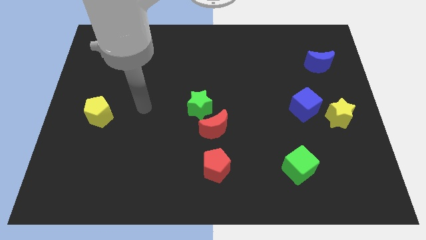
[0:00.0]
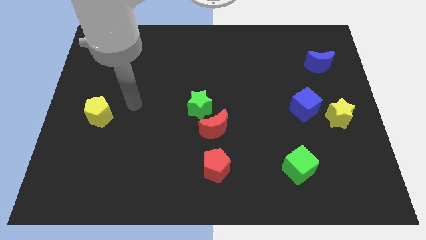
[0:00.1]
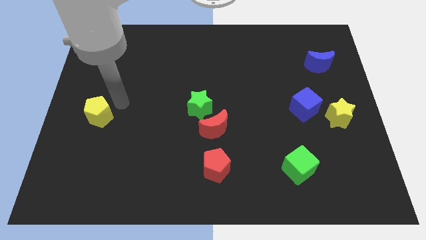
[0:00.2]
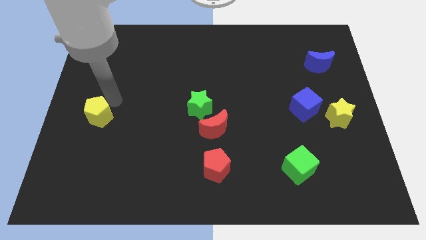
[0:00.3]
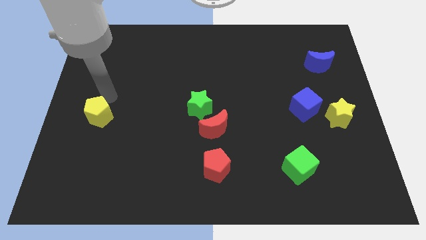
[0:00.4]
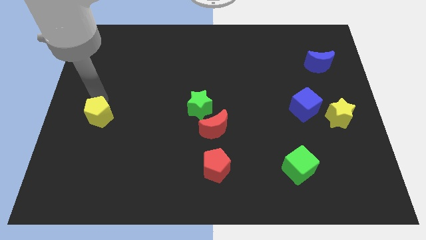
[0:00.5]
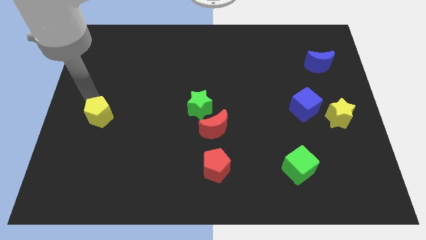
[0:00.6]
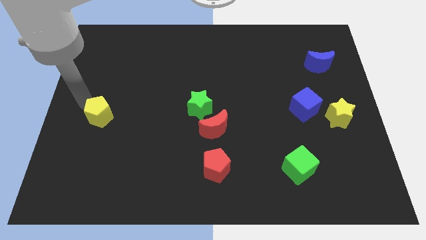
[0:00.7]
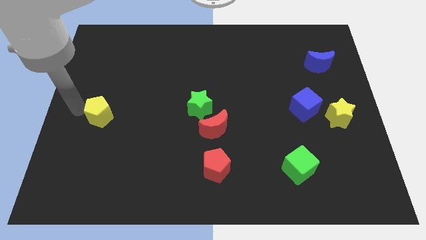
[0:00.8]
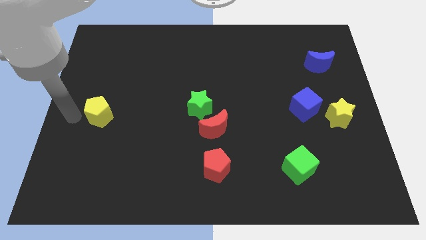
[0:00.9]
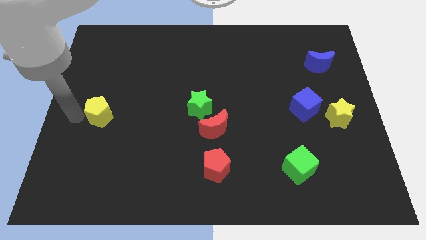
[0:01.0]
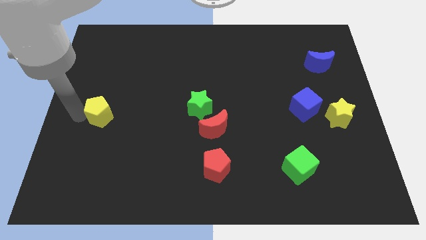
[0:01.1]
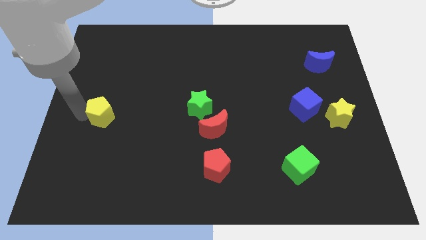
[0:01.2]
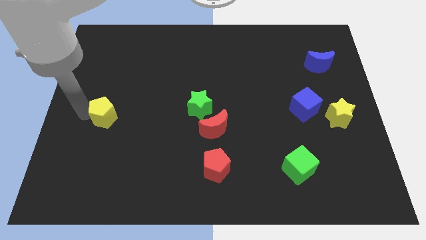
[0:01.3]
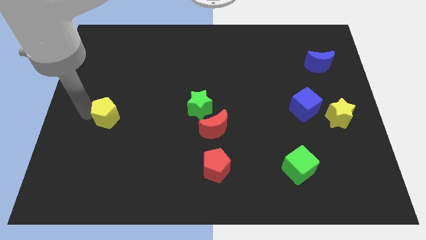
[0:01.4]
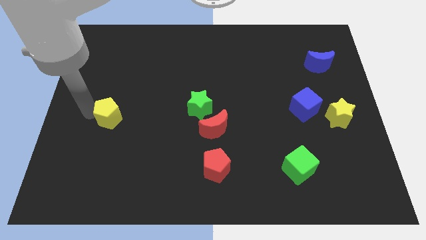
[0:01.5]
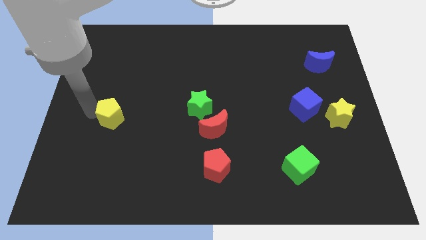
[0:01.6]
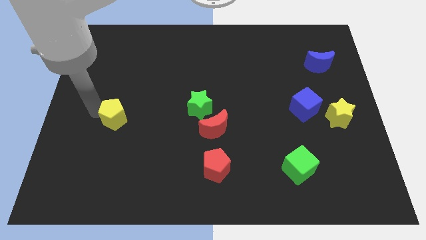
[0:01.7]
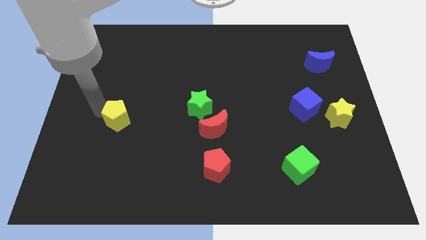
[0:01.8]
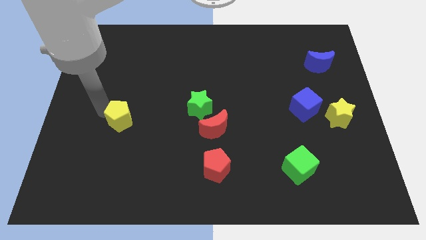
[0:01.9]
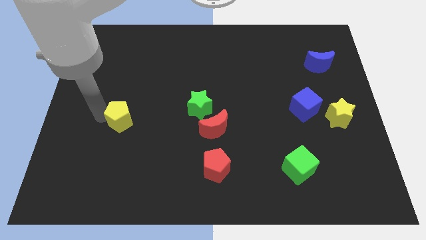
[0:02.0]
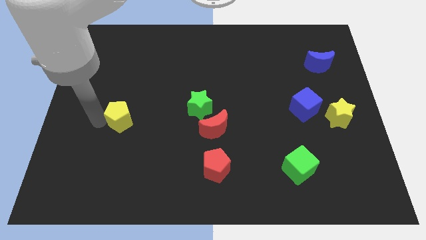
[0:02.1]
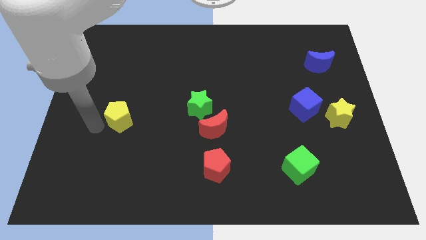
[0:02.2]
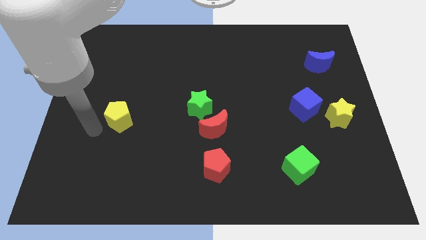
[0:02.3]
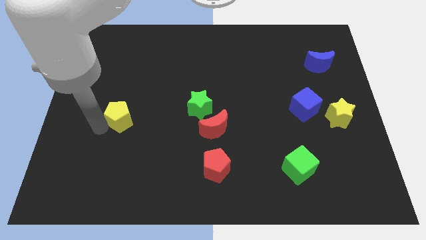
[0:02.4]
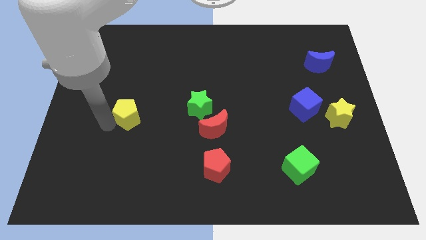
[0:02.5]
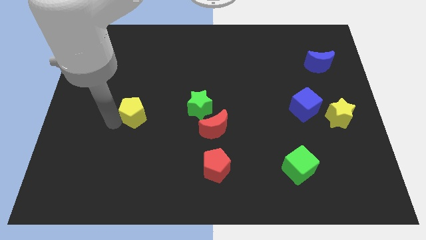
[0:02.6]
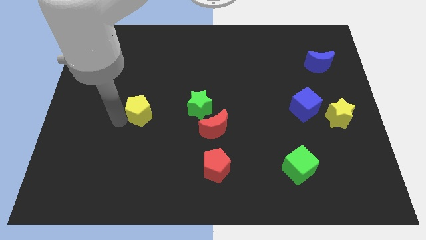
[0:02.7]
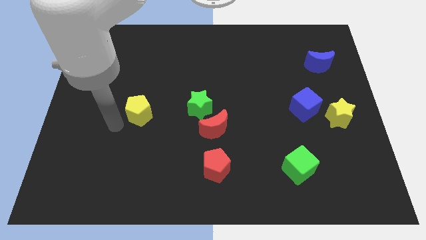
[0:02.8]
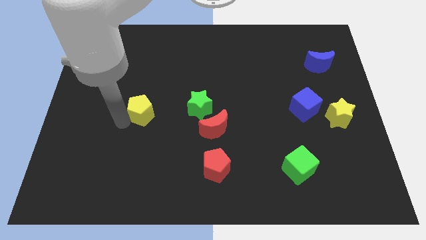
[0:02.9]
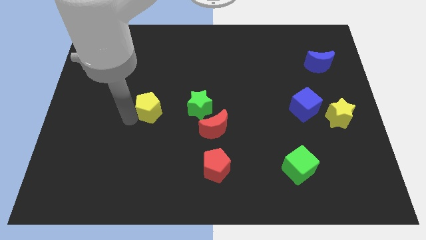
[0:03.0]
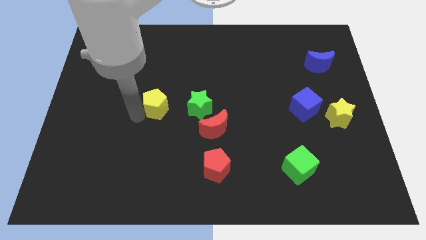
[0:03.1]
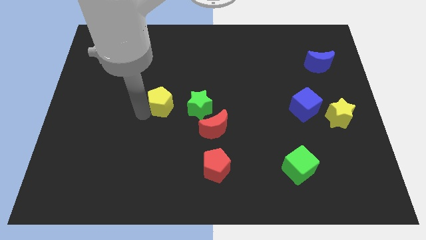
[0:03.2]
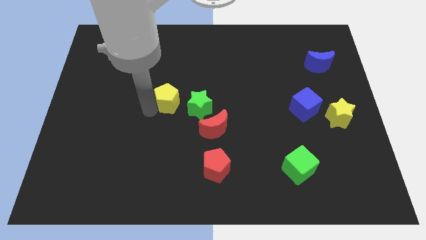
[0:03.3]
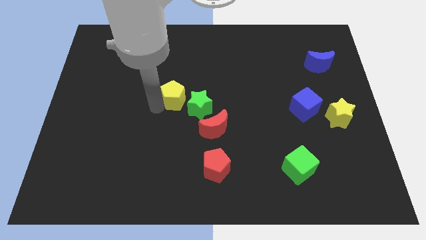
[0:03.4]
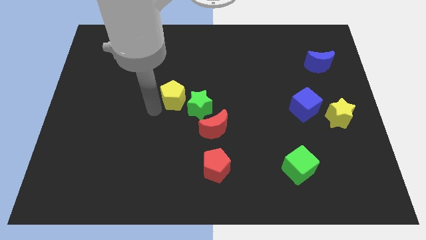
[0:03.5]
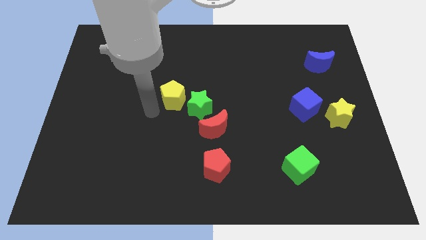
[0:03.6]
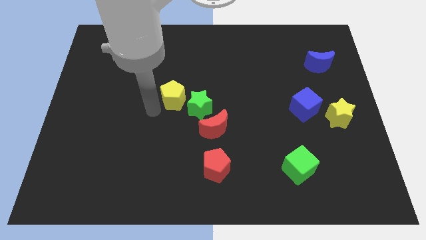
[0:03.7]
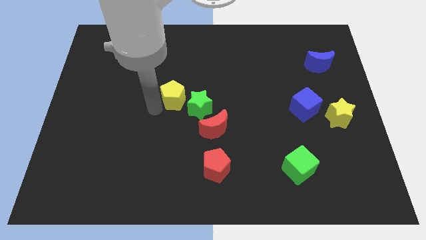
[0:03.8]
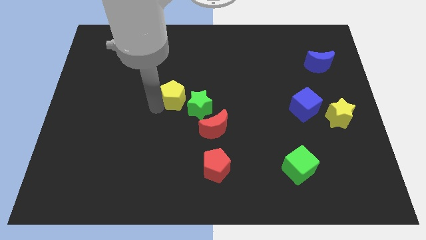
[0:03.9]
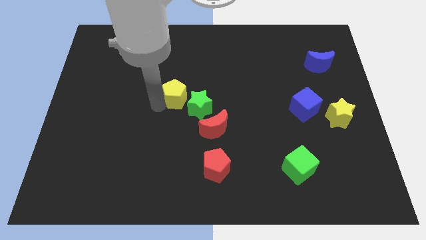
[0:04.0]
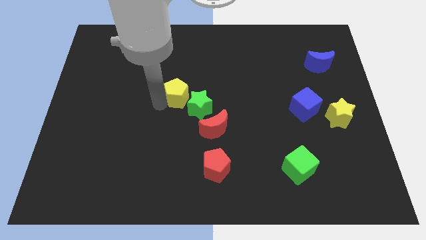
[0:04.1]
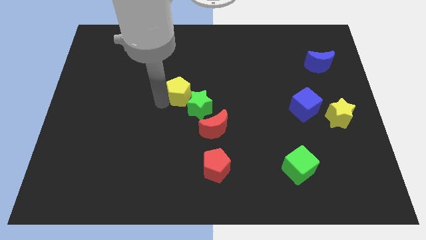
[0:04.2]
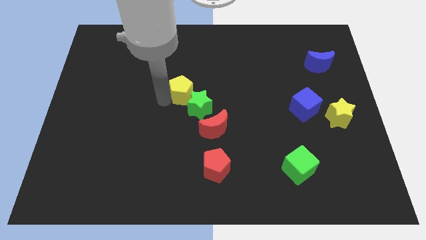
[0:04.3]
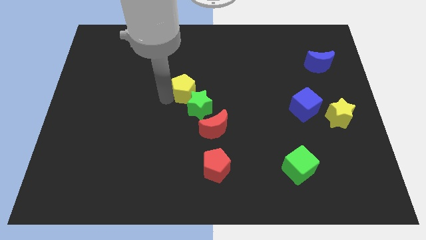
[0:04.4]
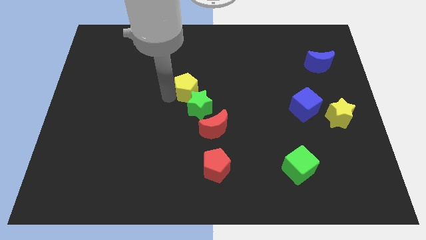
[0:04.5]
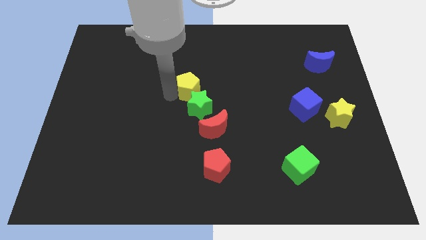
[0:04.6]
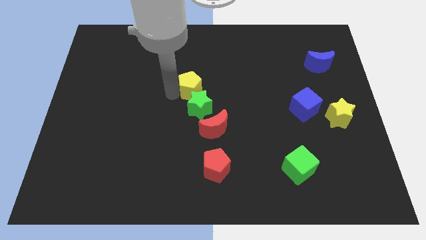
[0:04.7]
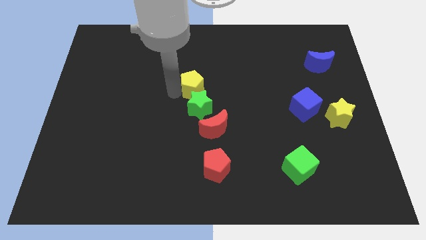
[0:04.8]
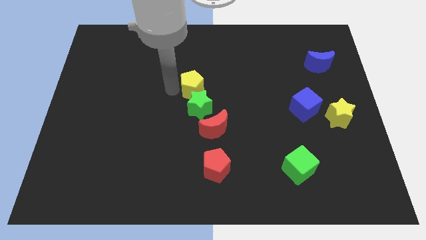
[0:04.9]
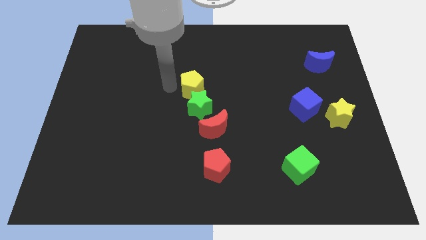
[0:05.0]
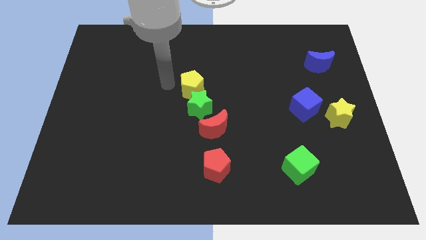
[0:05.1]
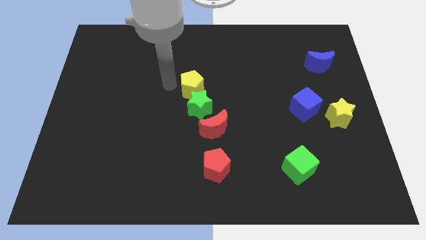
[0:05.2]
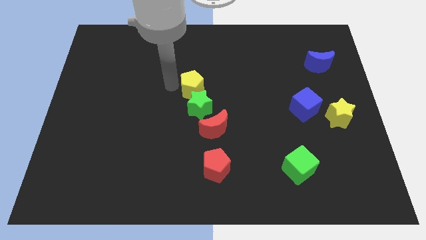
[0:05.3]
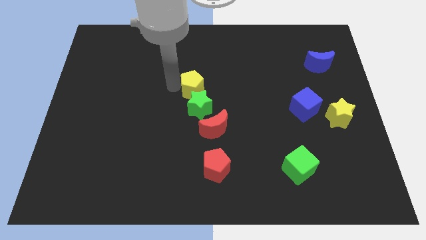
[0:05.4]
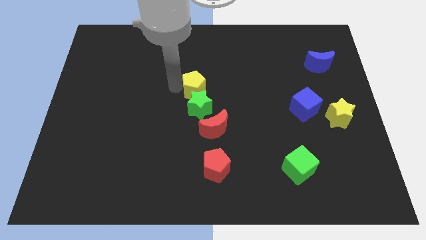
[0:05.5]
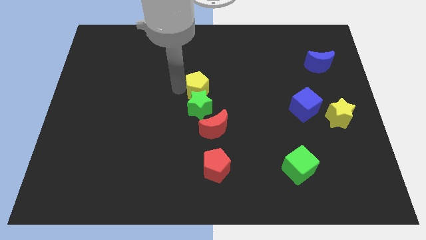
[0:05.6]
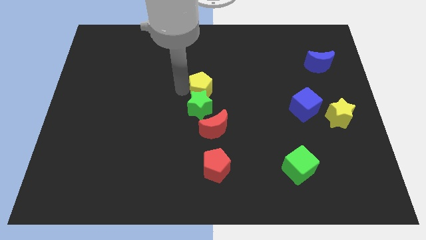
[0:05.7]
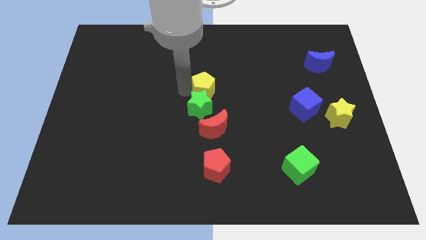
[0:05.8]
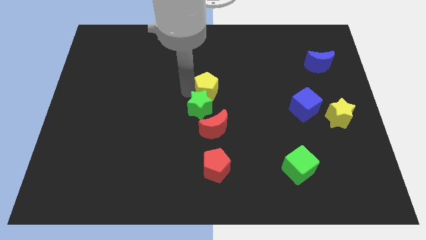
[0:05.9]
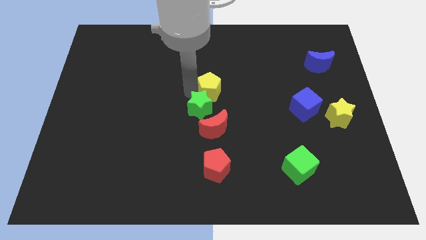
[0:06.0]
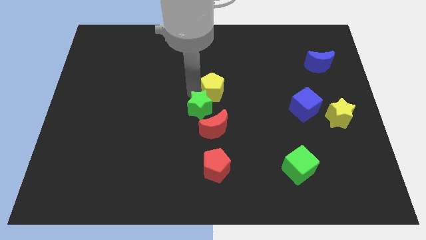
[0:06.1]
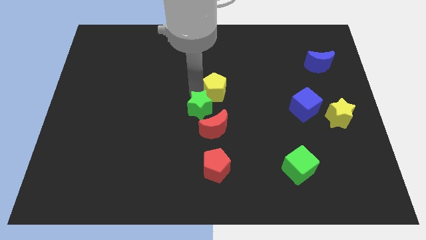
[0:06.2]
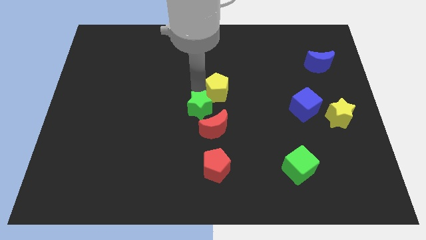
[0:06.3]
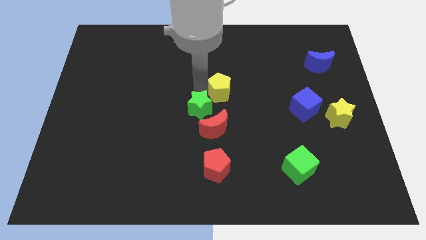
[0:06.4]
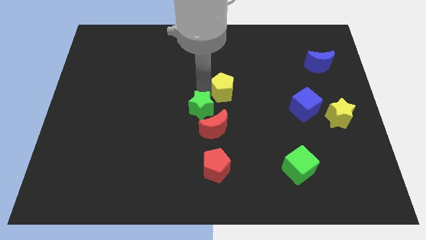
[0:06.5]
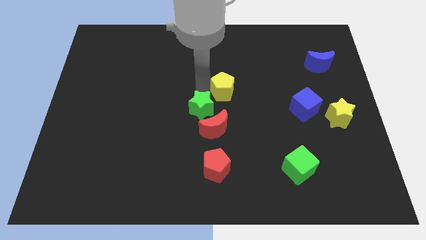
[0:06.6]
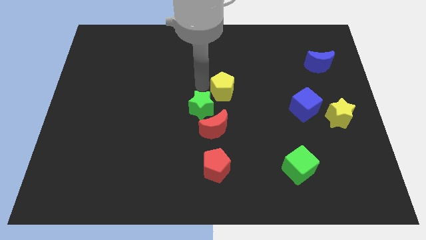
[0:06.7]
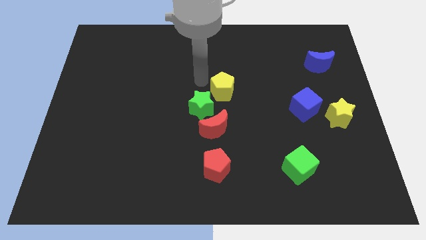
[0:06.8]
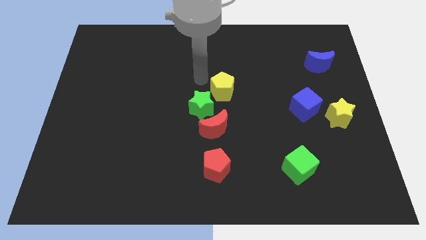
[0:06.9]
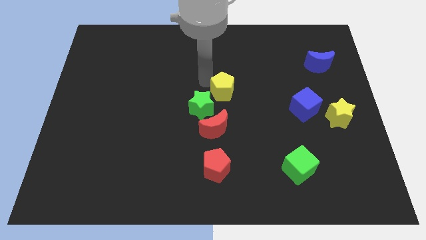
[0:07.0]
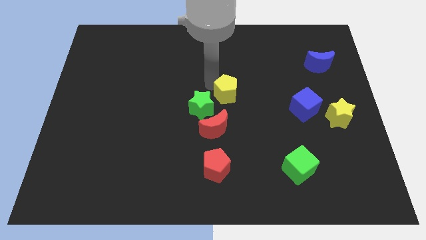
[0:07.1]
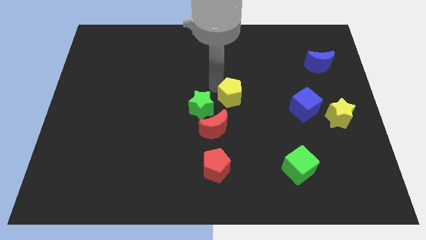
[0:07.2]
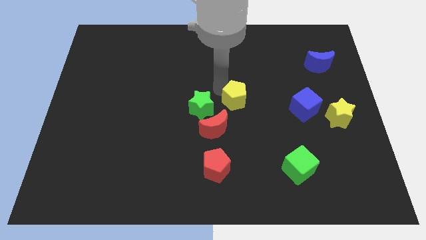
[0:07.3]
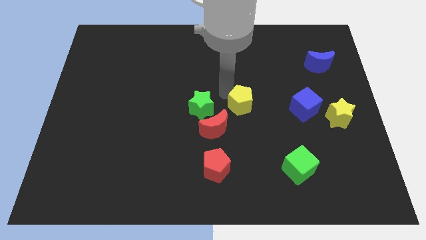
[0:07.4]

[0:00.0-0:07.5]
move the yellow pentagon left of the blue cube
